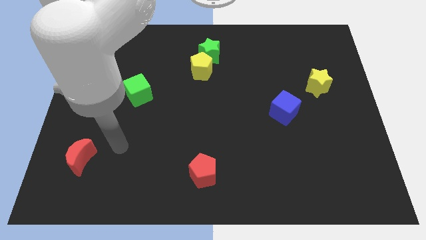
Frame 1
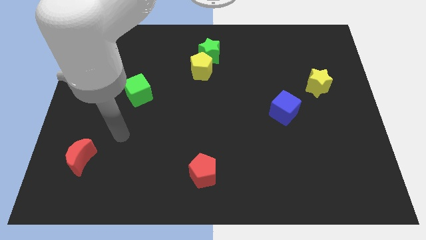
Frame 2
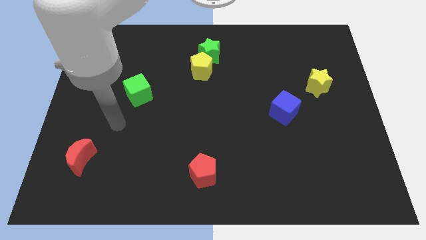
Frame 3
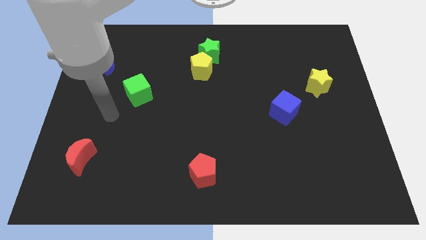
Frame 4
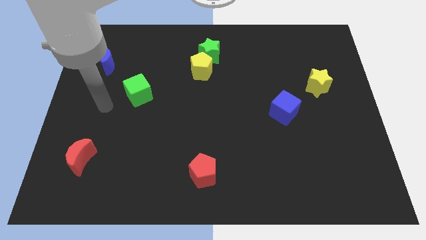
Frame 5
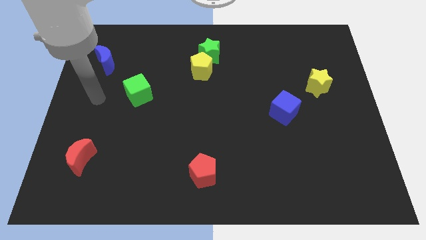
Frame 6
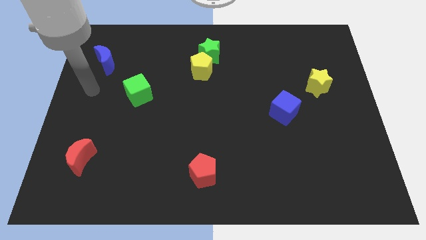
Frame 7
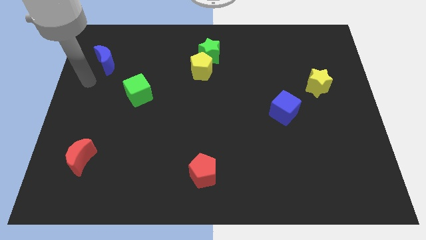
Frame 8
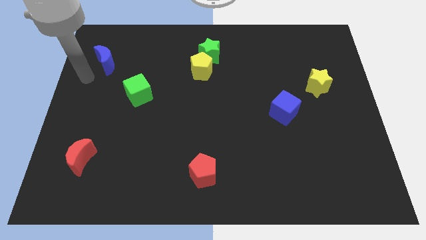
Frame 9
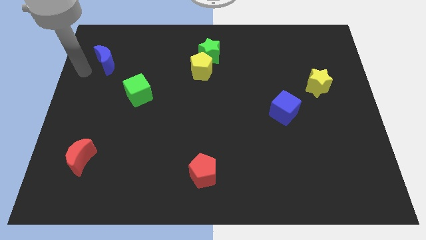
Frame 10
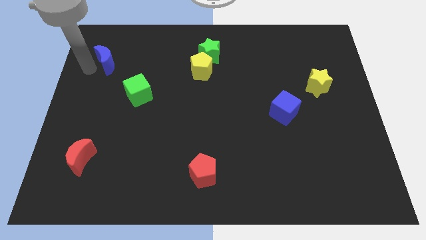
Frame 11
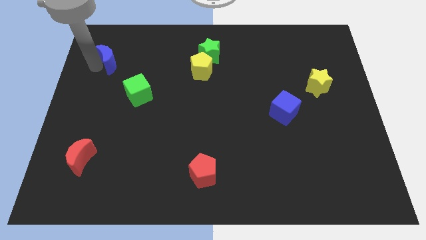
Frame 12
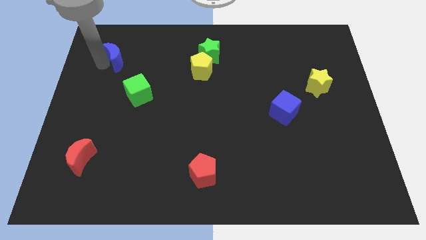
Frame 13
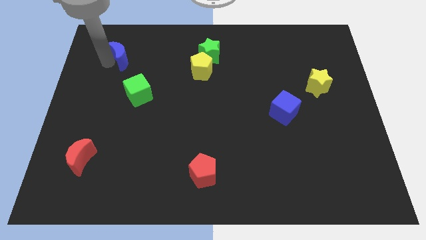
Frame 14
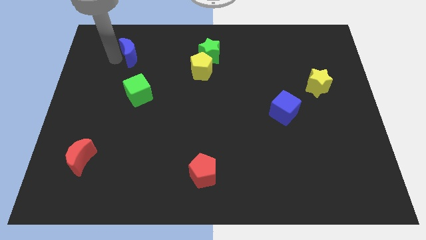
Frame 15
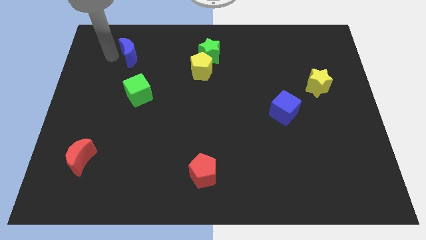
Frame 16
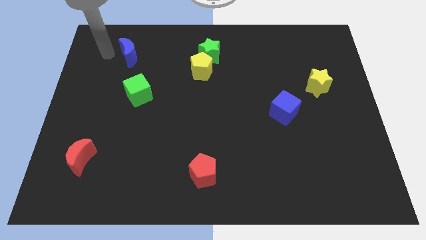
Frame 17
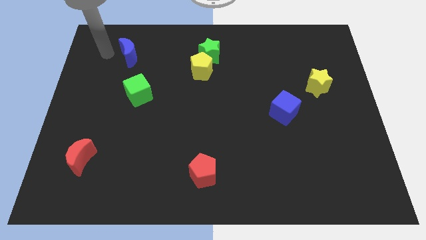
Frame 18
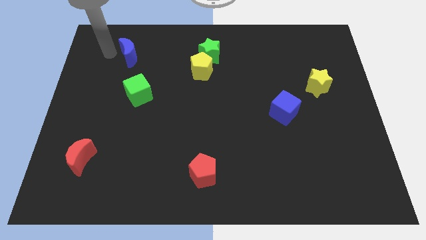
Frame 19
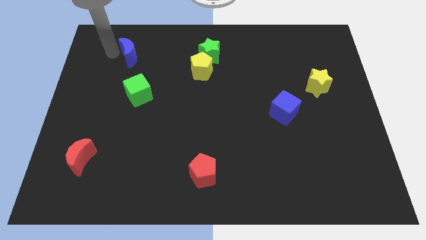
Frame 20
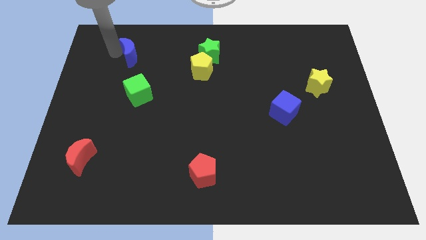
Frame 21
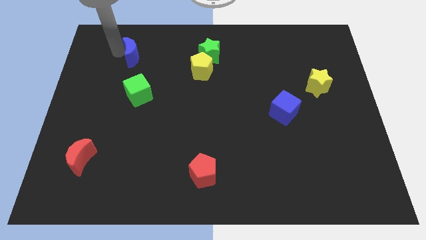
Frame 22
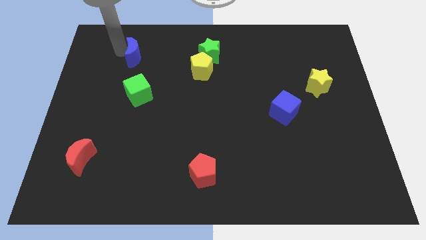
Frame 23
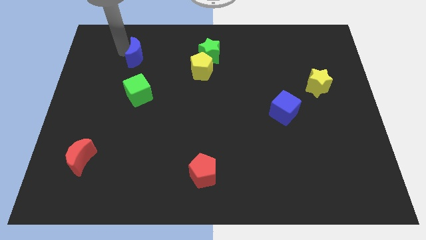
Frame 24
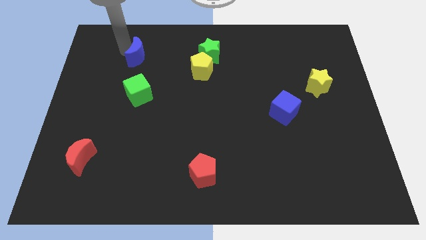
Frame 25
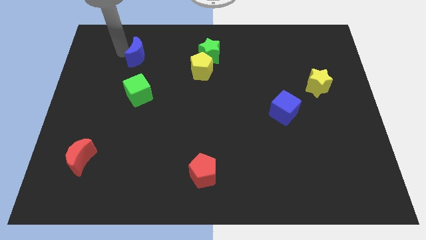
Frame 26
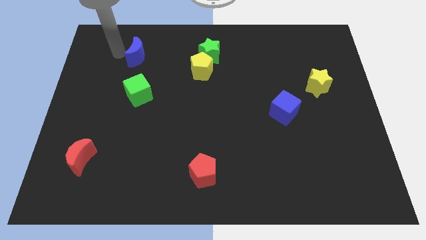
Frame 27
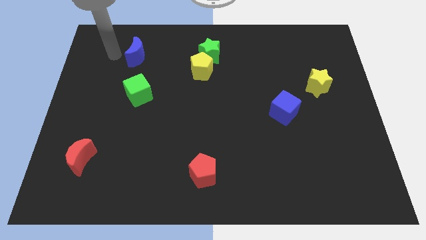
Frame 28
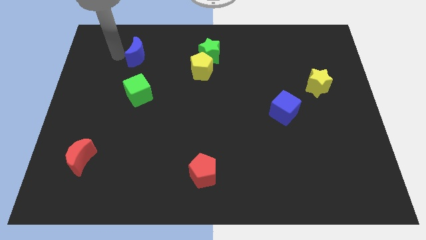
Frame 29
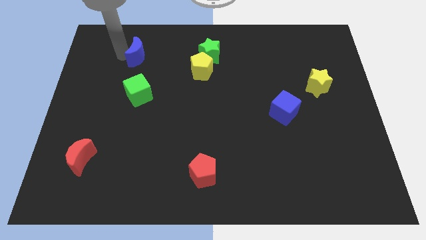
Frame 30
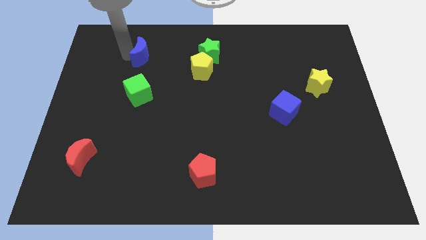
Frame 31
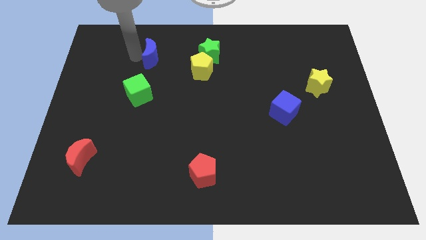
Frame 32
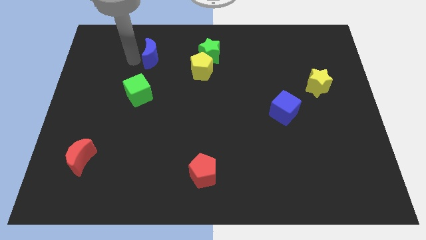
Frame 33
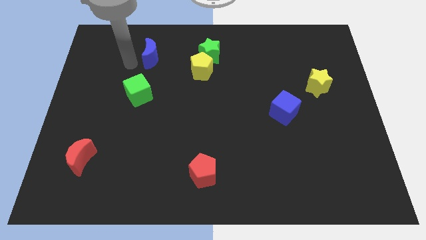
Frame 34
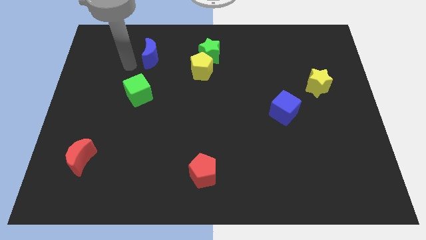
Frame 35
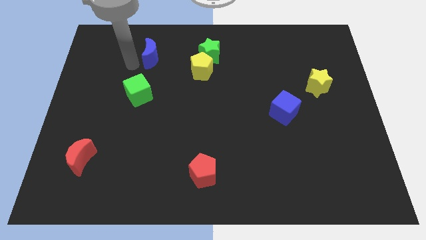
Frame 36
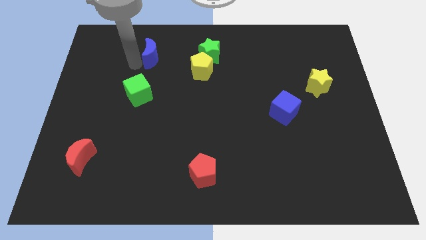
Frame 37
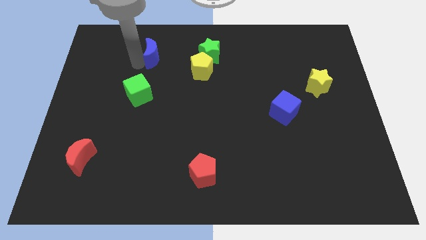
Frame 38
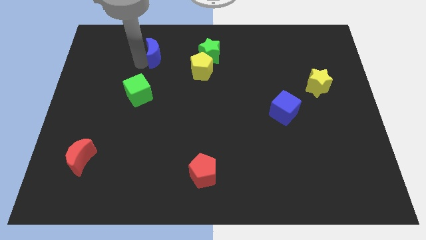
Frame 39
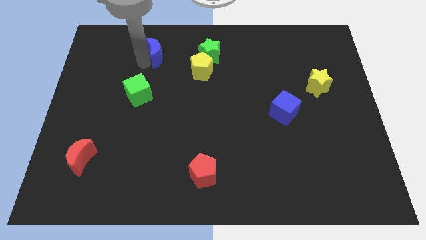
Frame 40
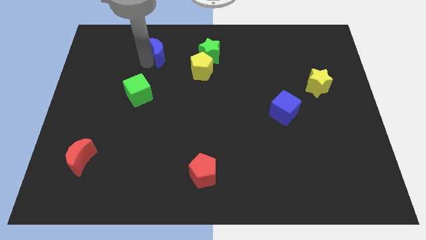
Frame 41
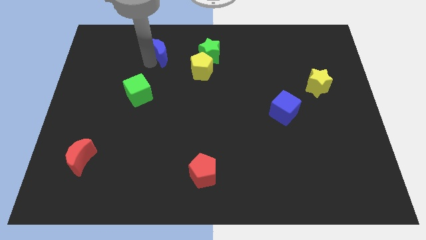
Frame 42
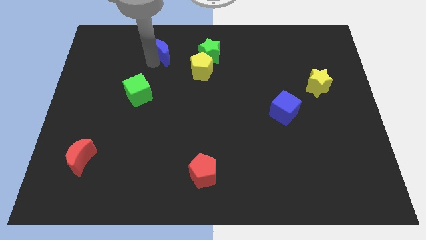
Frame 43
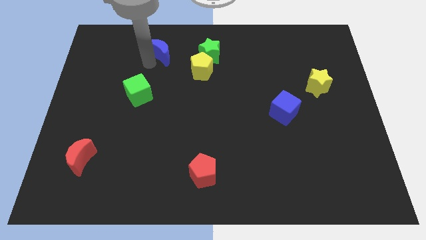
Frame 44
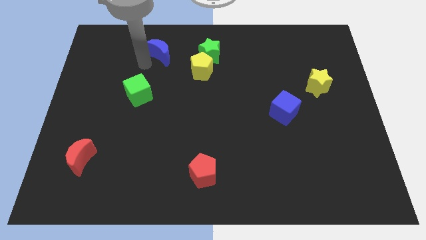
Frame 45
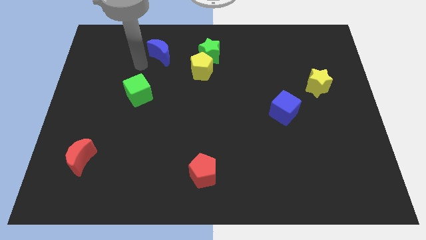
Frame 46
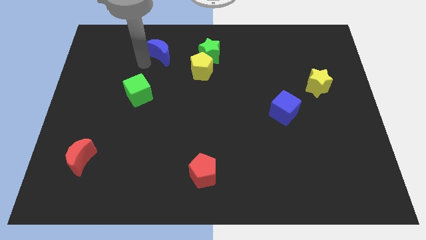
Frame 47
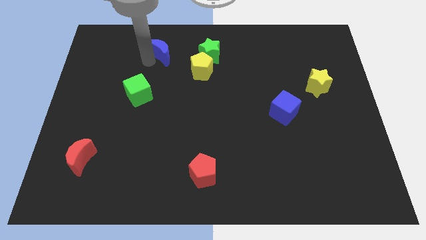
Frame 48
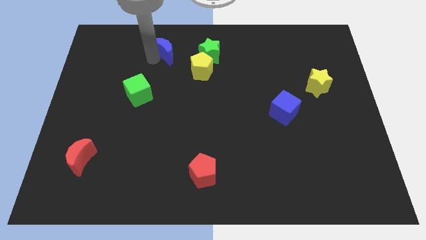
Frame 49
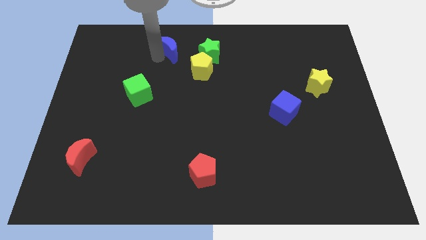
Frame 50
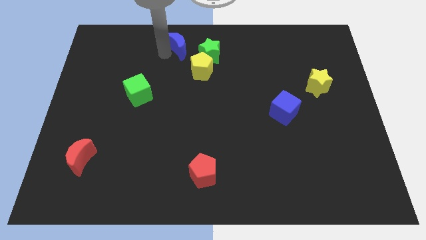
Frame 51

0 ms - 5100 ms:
put the blue moon to the top side

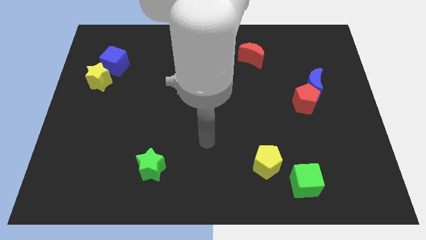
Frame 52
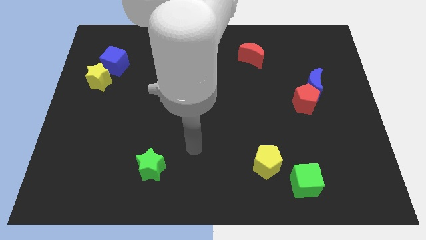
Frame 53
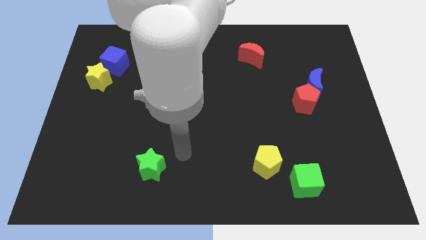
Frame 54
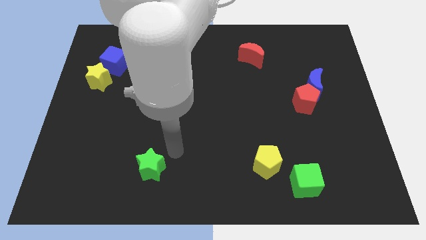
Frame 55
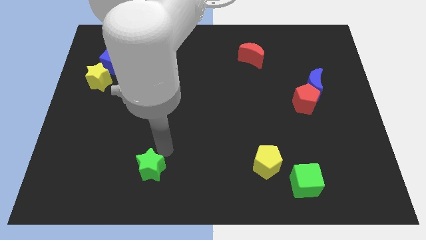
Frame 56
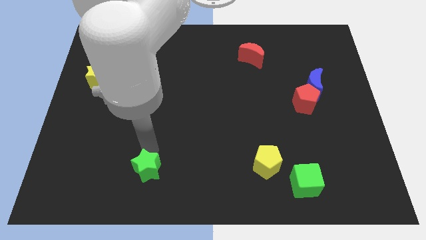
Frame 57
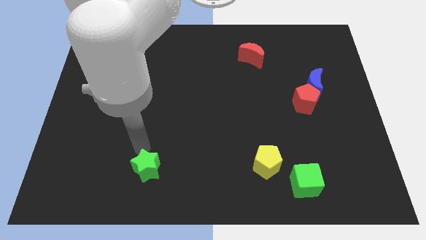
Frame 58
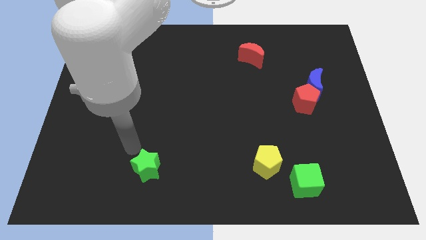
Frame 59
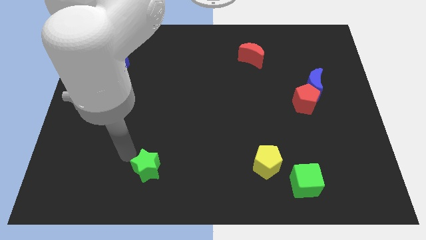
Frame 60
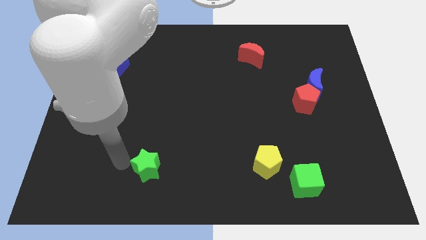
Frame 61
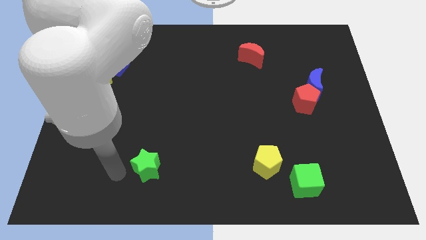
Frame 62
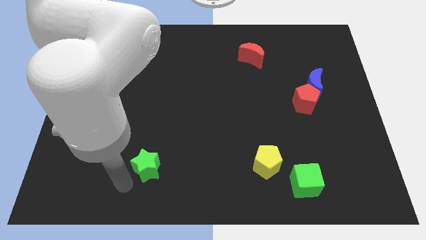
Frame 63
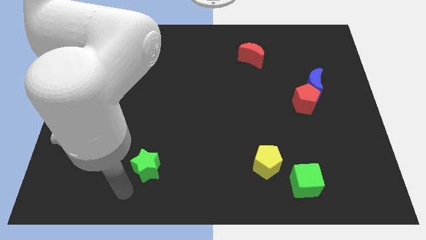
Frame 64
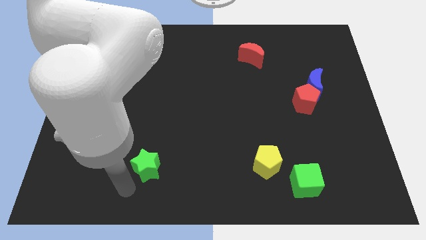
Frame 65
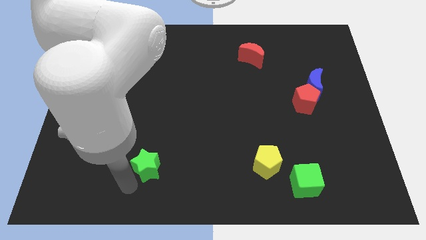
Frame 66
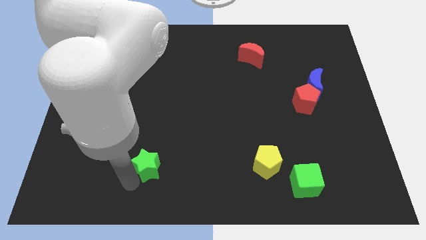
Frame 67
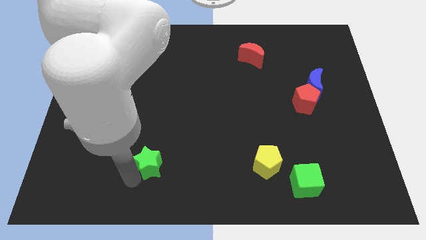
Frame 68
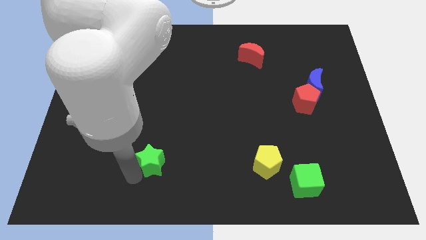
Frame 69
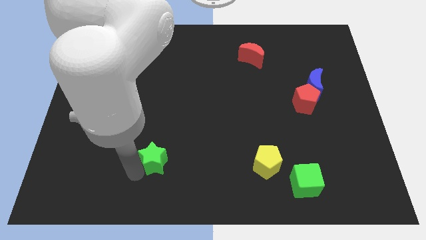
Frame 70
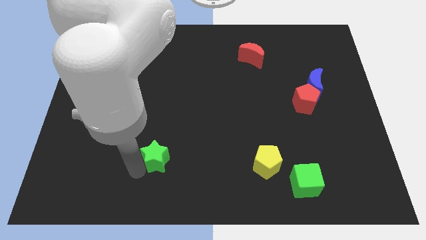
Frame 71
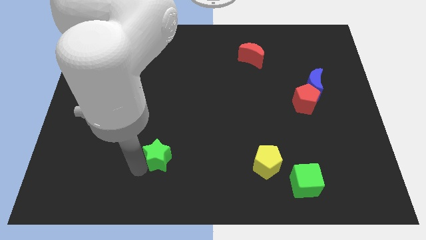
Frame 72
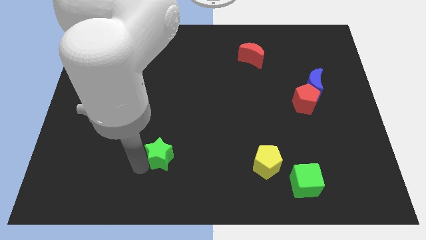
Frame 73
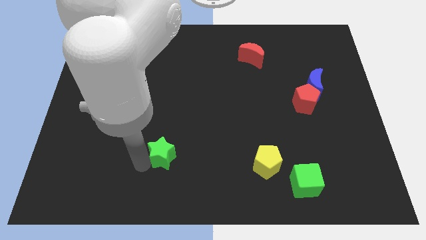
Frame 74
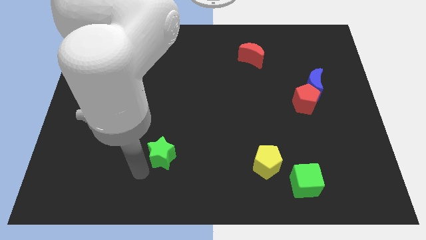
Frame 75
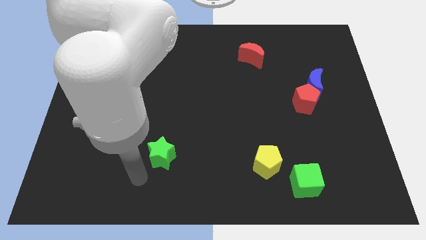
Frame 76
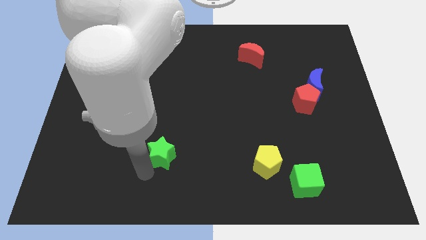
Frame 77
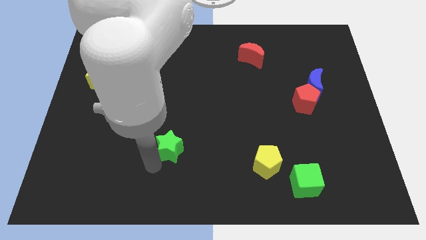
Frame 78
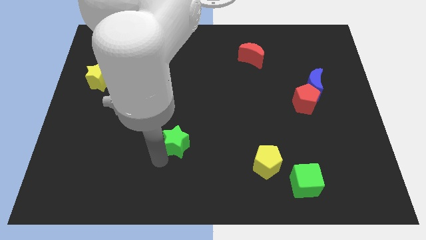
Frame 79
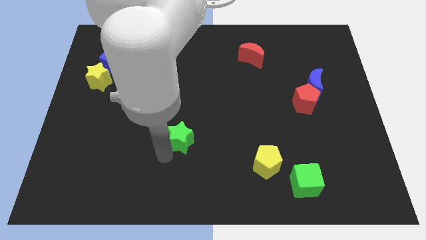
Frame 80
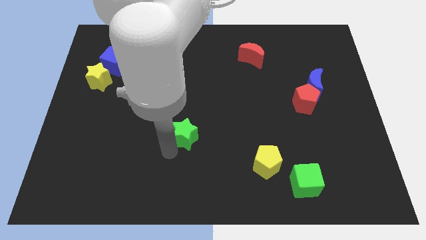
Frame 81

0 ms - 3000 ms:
push the green star to the center
